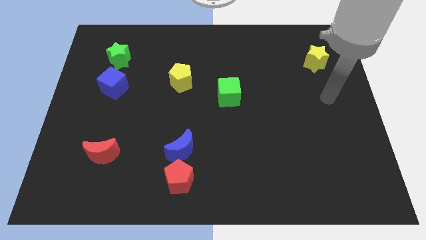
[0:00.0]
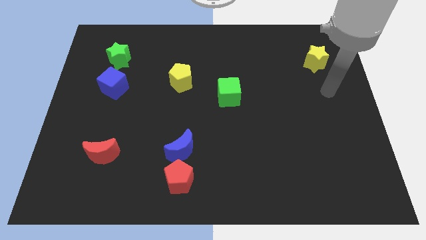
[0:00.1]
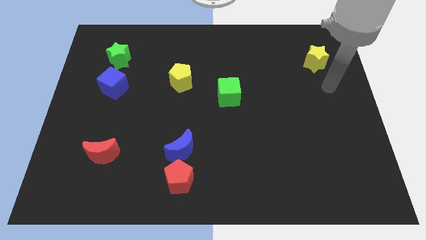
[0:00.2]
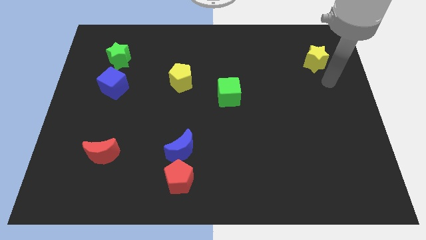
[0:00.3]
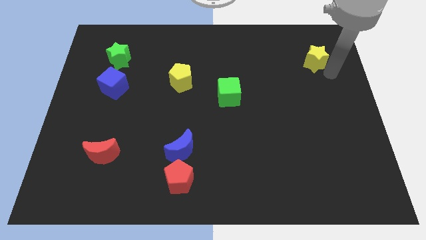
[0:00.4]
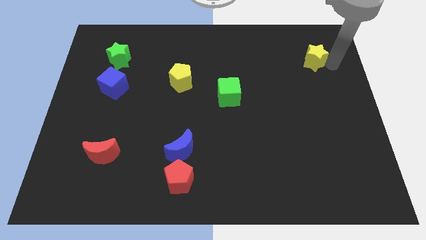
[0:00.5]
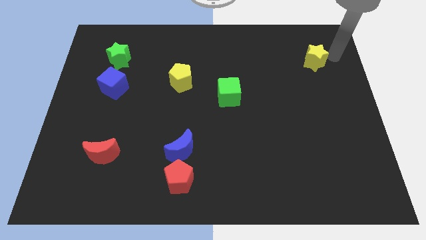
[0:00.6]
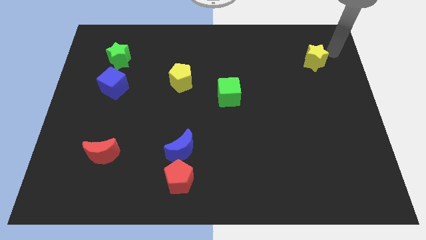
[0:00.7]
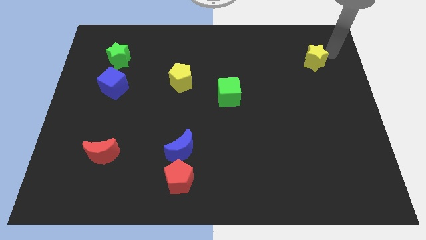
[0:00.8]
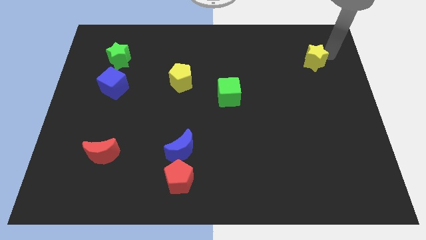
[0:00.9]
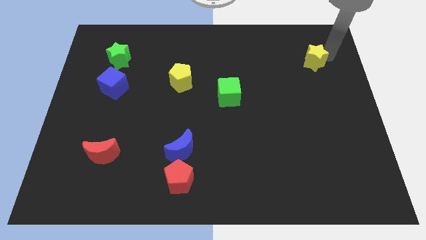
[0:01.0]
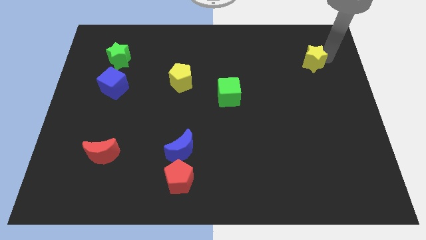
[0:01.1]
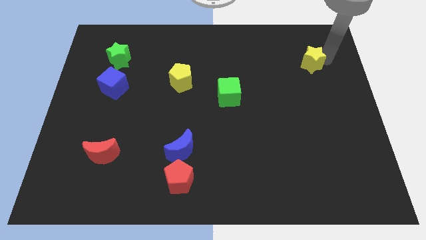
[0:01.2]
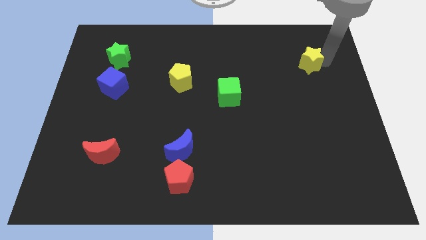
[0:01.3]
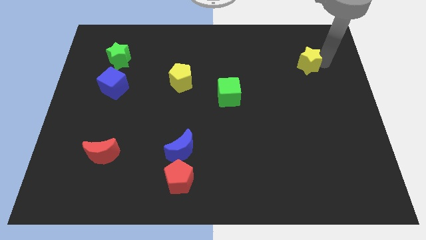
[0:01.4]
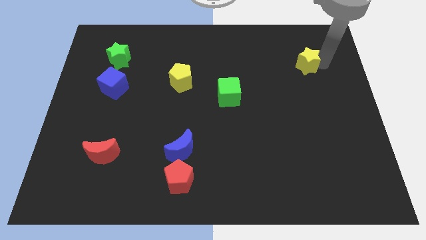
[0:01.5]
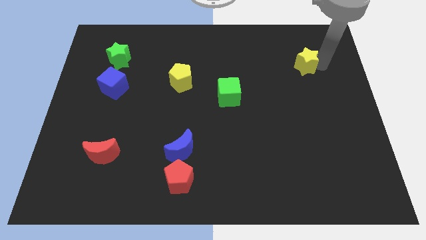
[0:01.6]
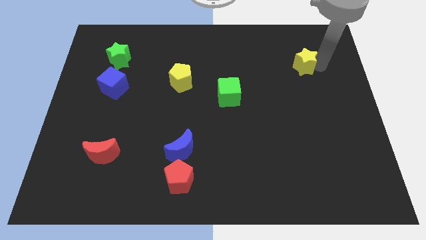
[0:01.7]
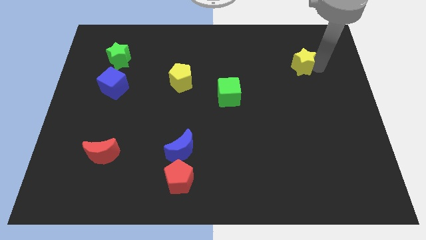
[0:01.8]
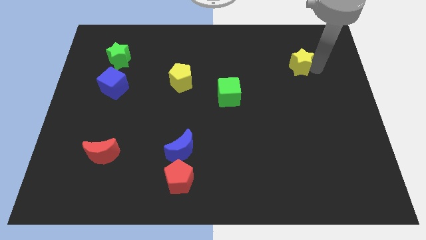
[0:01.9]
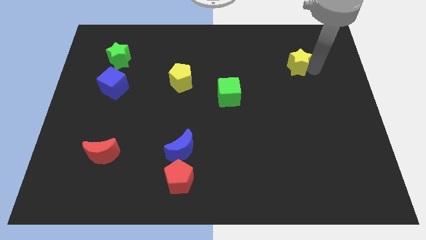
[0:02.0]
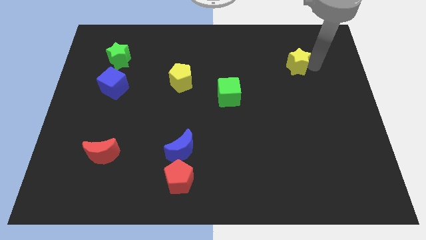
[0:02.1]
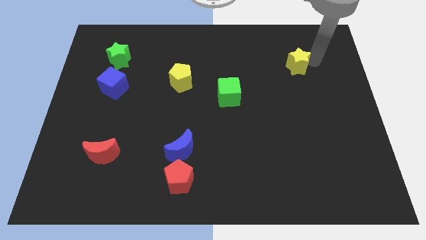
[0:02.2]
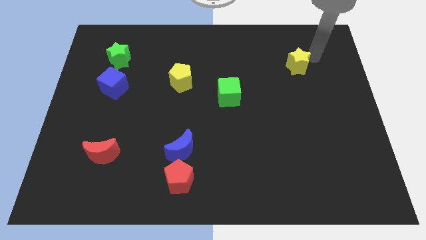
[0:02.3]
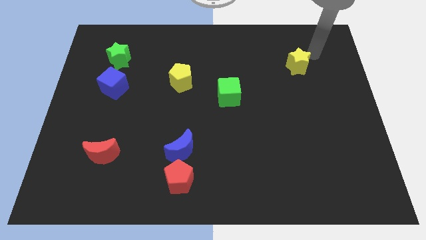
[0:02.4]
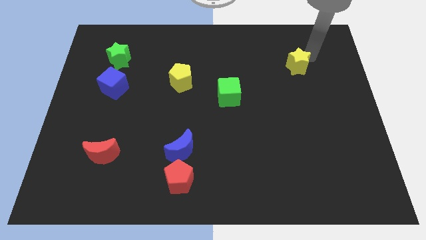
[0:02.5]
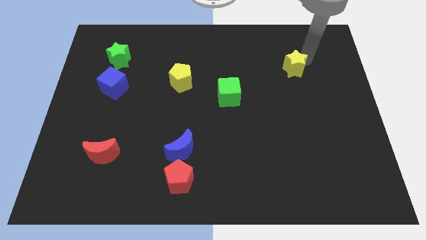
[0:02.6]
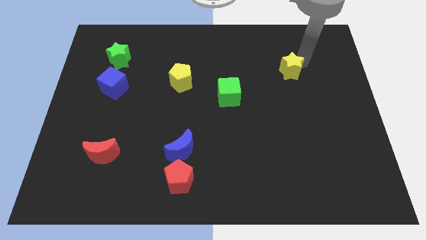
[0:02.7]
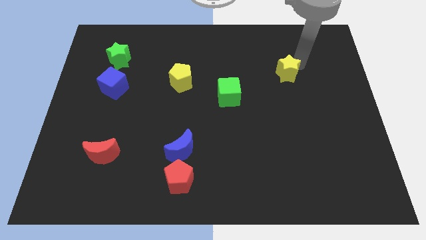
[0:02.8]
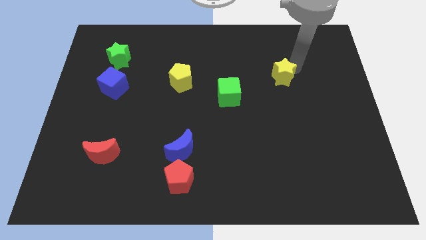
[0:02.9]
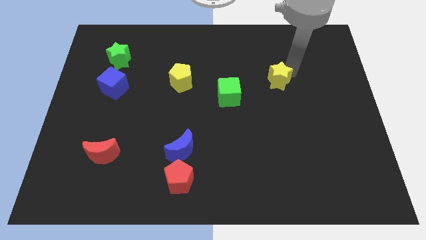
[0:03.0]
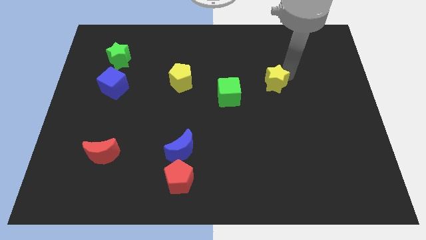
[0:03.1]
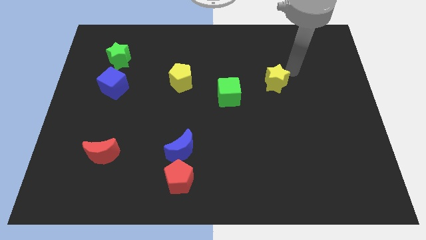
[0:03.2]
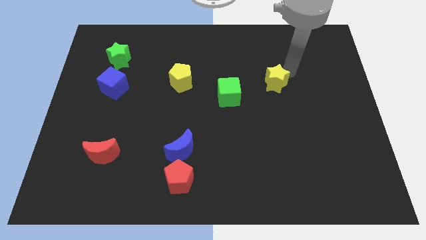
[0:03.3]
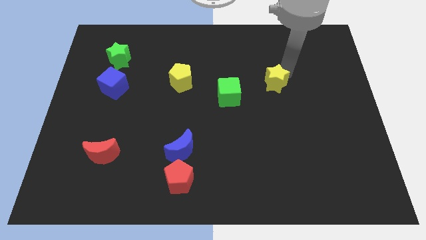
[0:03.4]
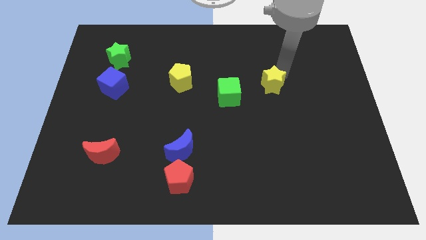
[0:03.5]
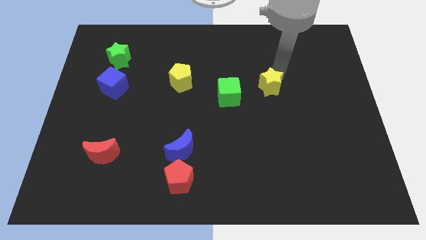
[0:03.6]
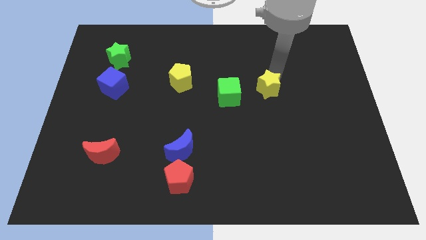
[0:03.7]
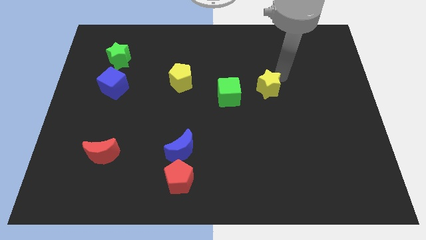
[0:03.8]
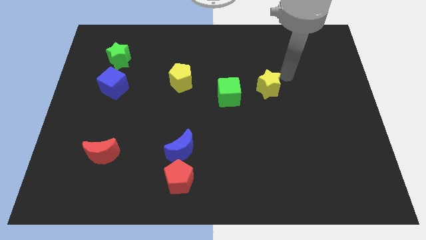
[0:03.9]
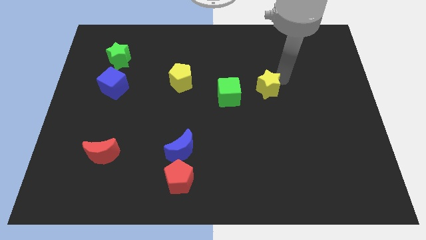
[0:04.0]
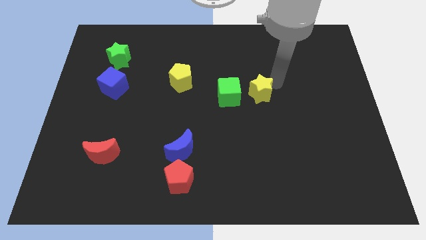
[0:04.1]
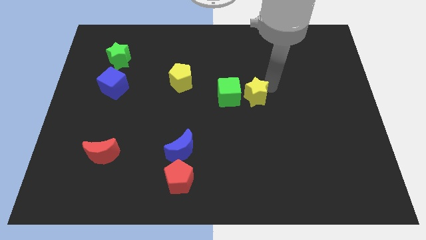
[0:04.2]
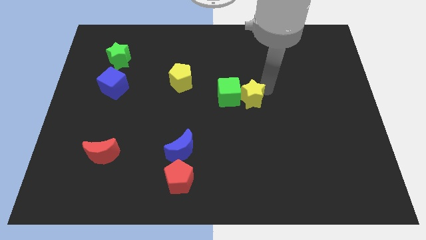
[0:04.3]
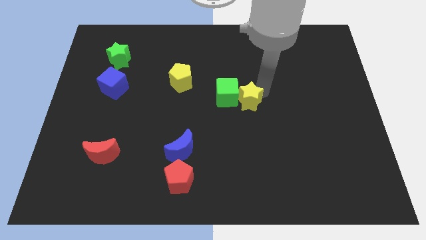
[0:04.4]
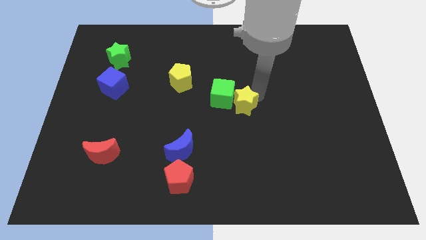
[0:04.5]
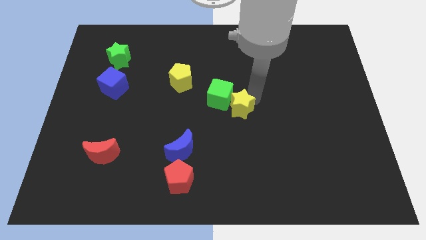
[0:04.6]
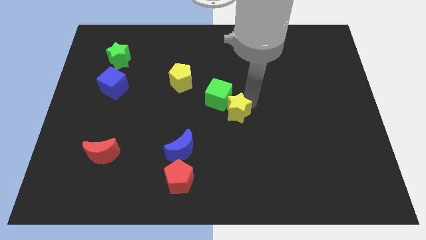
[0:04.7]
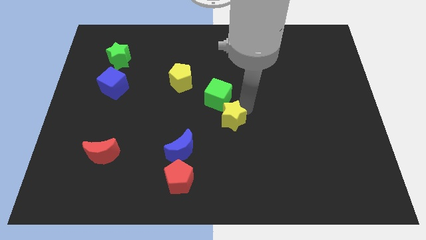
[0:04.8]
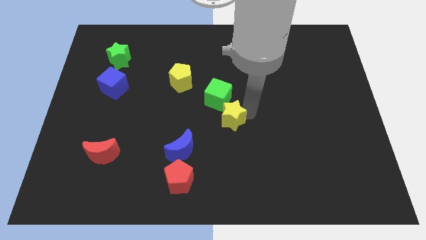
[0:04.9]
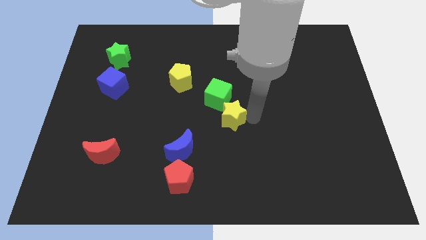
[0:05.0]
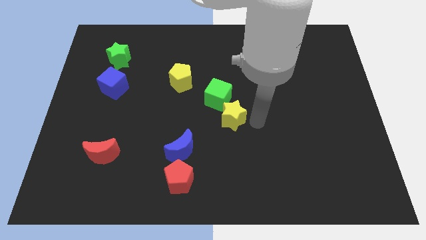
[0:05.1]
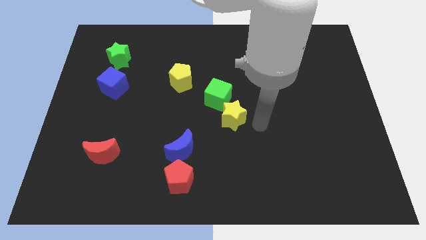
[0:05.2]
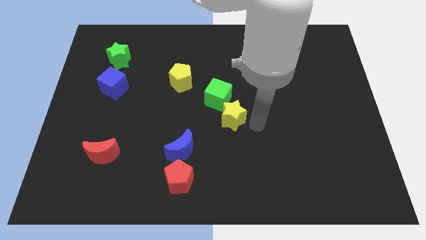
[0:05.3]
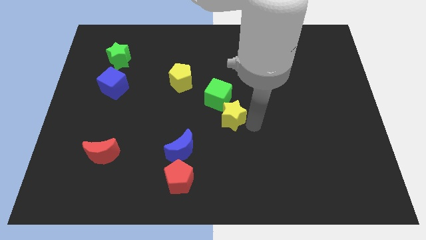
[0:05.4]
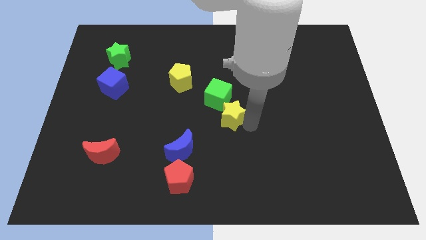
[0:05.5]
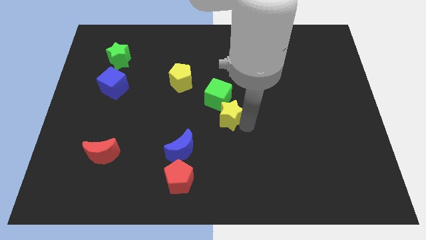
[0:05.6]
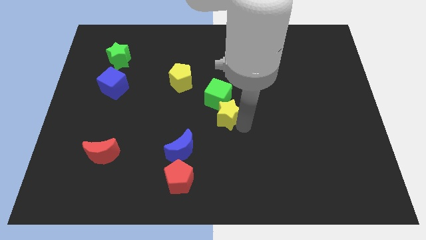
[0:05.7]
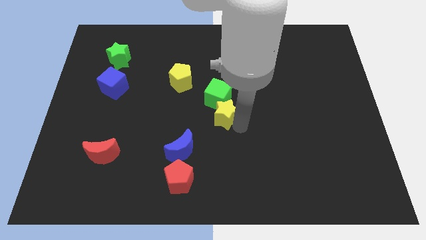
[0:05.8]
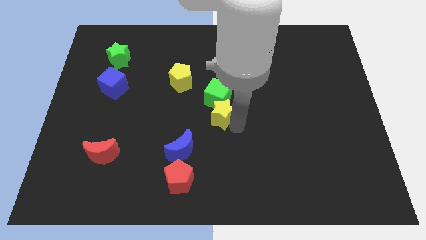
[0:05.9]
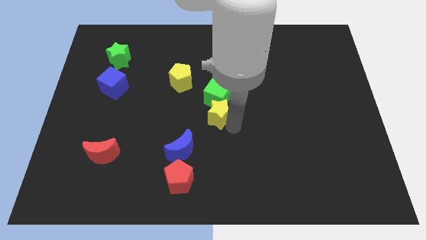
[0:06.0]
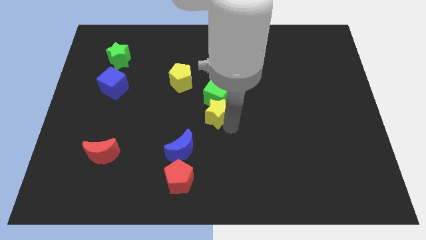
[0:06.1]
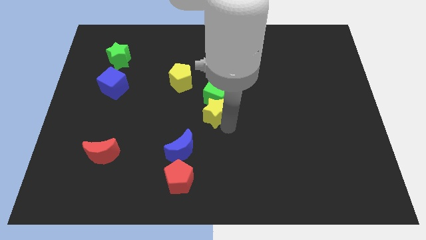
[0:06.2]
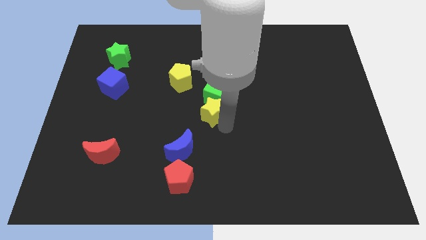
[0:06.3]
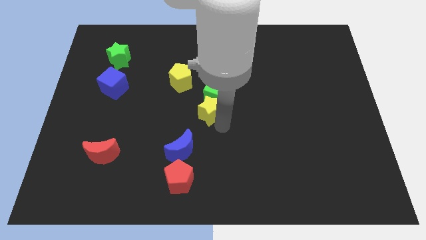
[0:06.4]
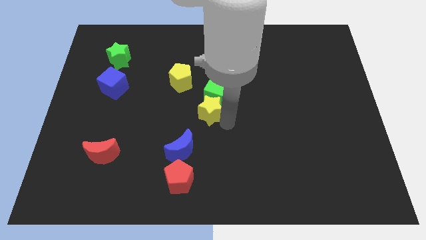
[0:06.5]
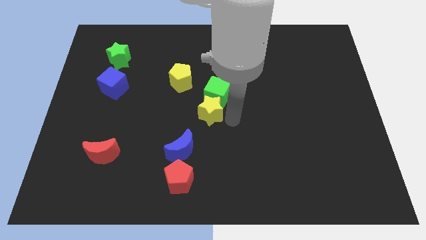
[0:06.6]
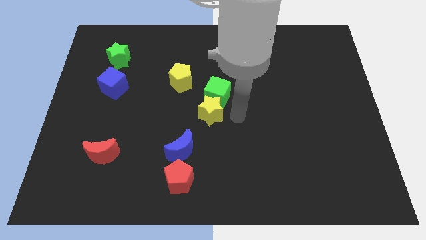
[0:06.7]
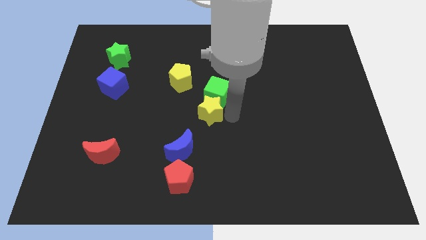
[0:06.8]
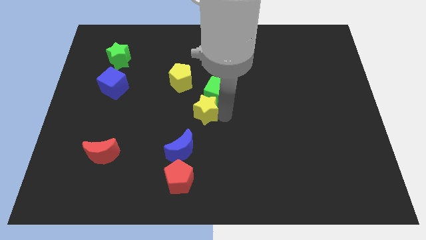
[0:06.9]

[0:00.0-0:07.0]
move the yellow star above the blue moon

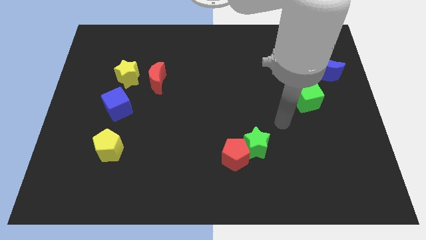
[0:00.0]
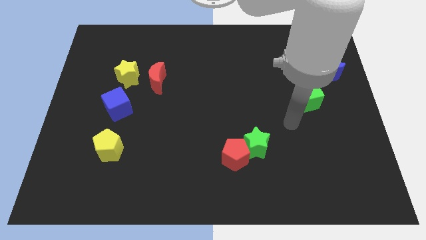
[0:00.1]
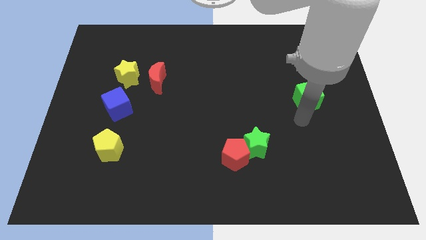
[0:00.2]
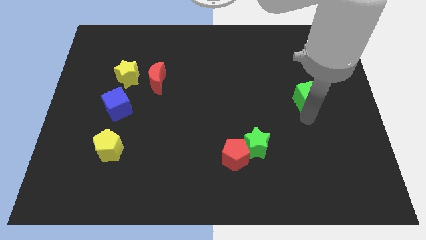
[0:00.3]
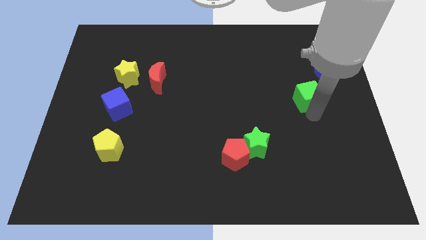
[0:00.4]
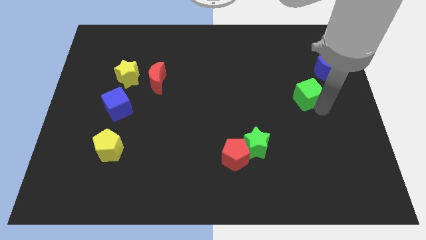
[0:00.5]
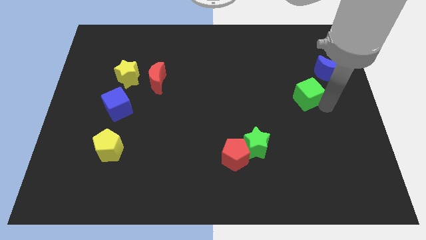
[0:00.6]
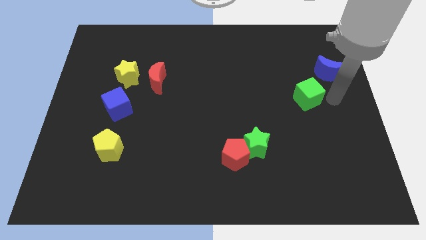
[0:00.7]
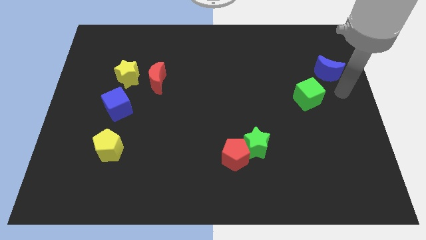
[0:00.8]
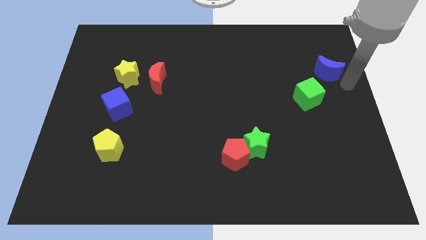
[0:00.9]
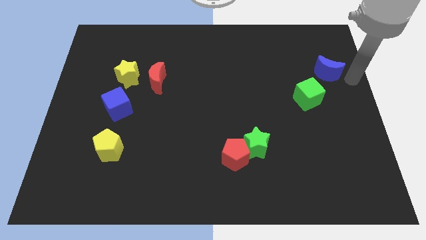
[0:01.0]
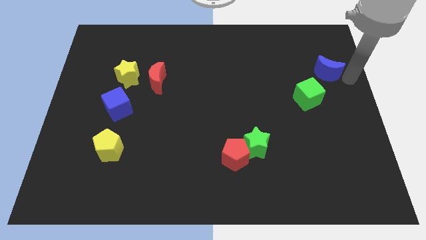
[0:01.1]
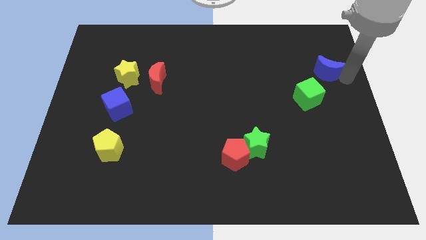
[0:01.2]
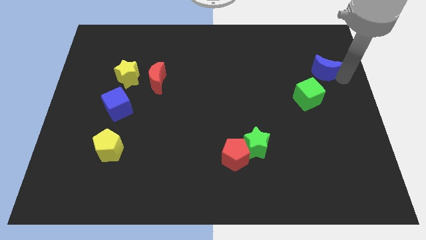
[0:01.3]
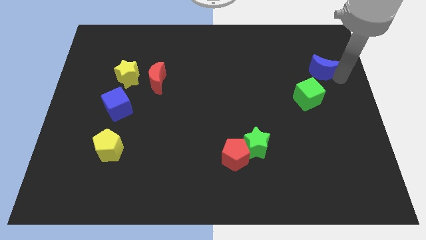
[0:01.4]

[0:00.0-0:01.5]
push the blue moon to the top of the green cube
